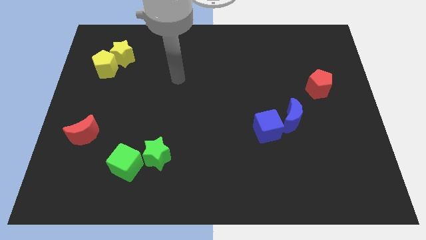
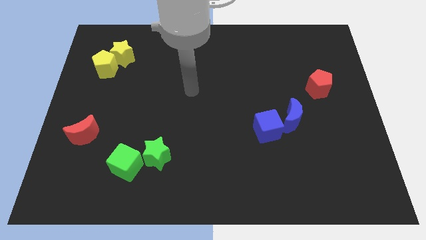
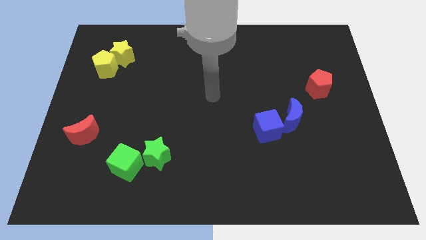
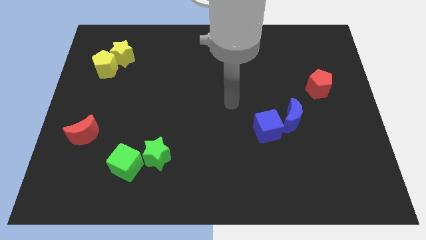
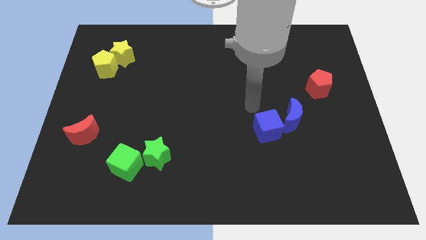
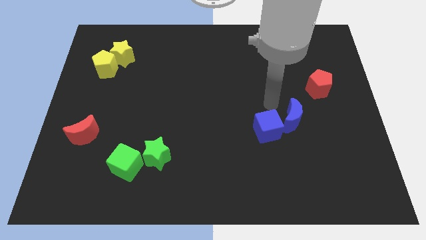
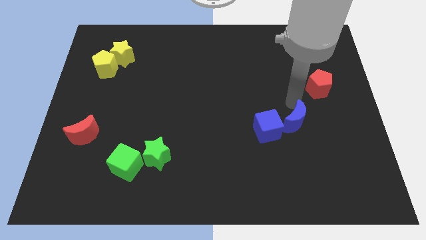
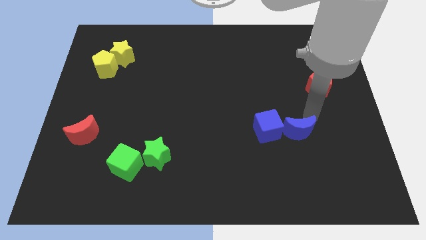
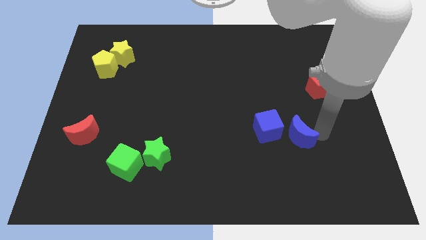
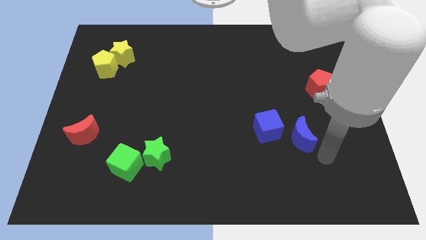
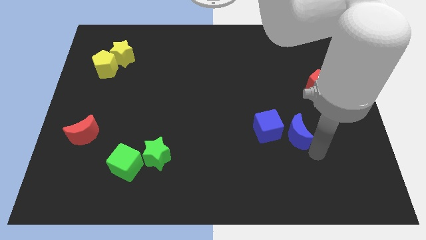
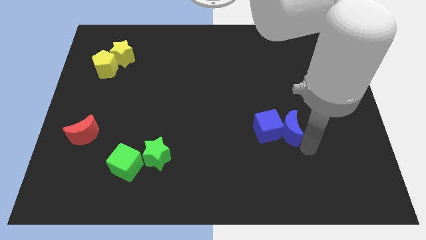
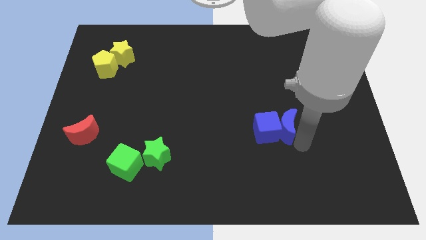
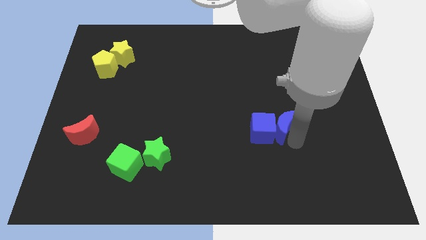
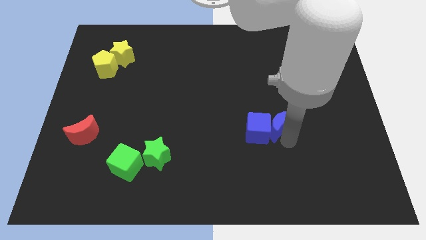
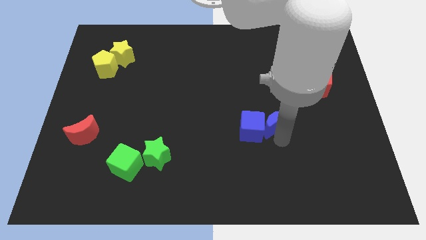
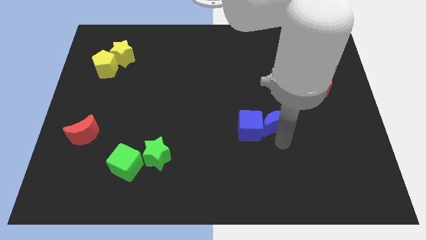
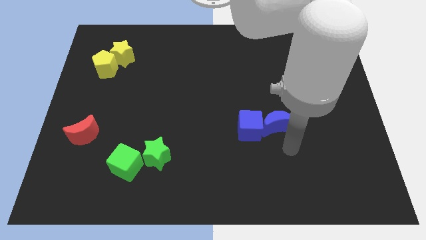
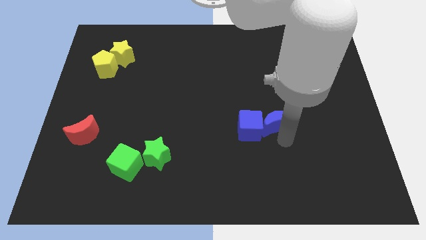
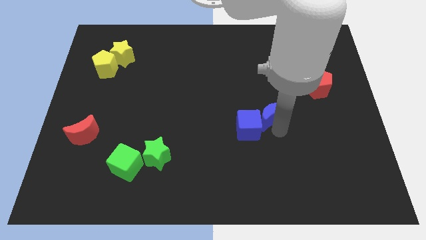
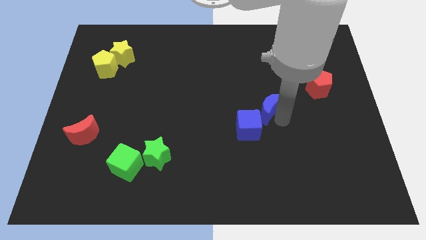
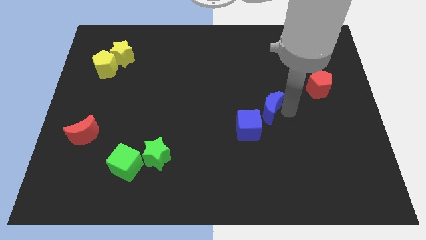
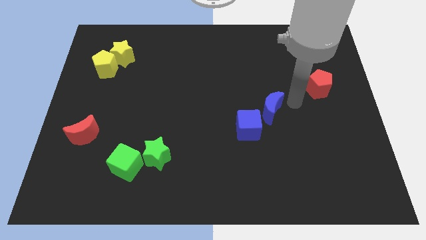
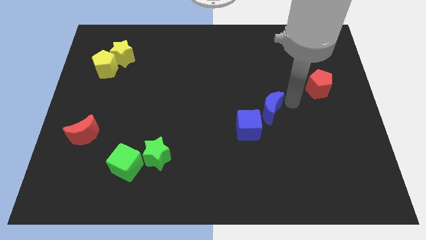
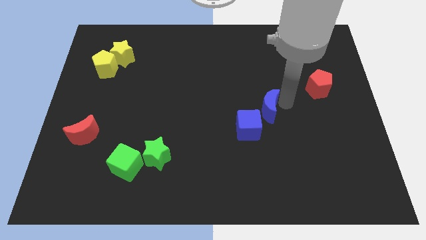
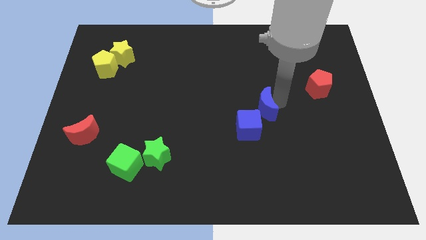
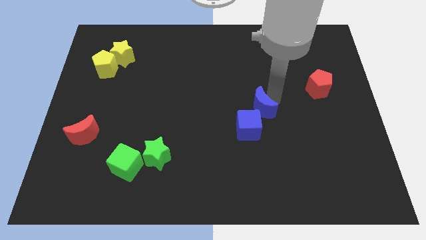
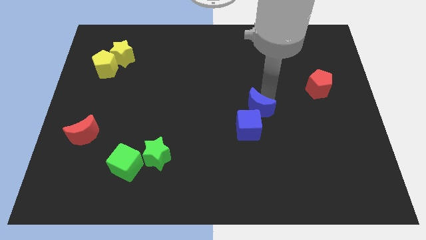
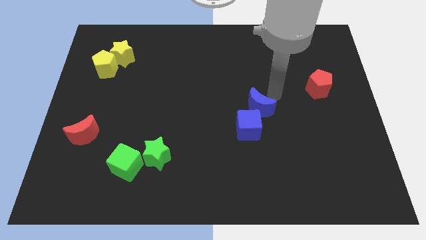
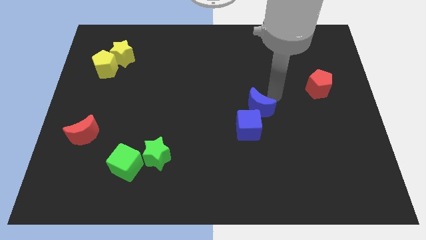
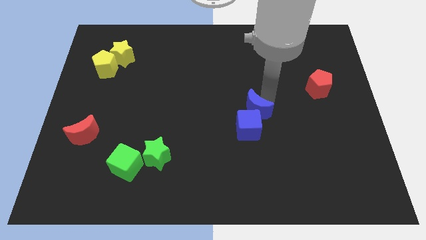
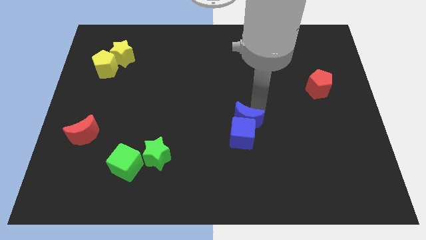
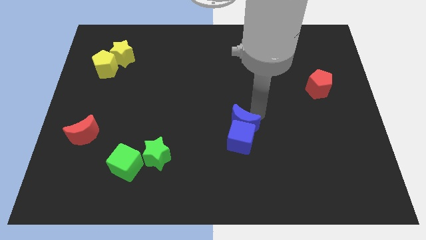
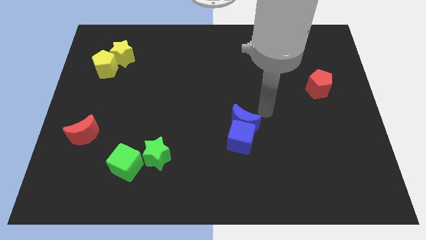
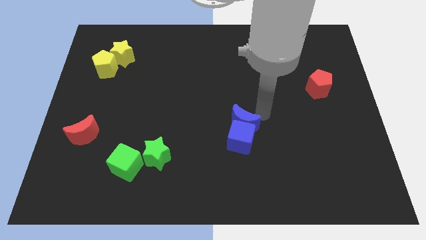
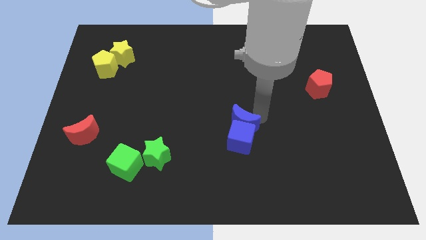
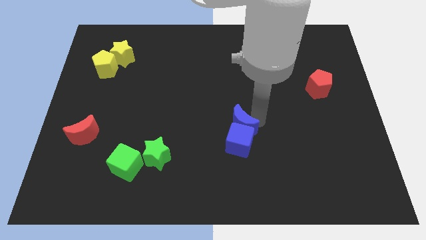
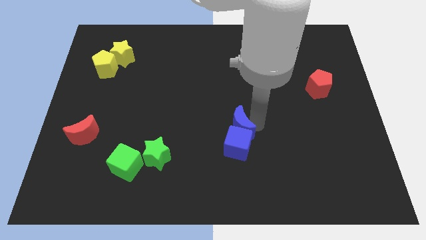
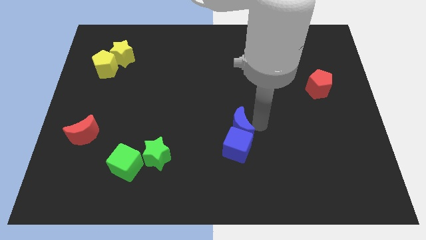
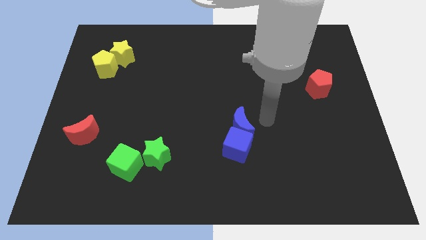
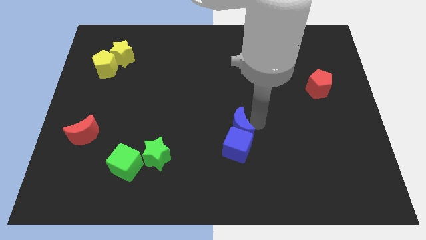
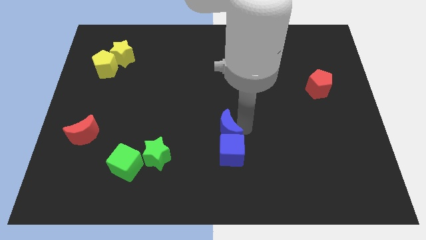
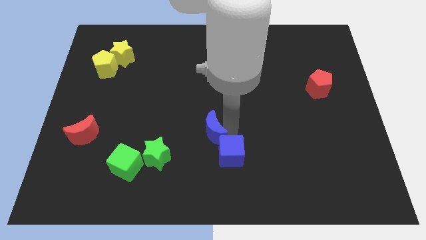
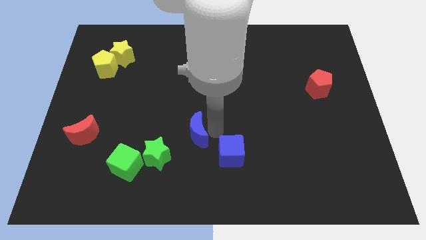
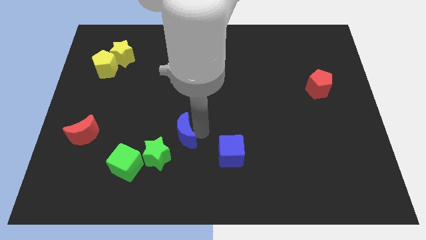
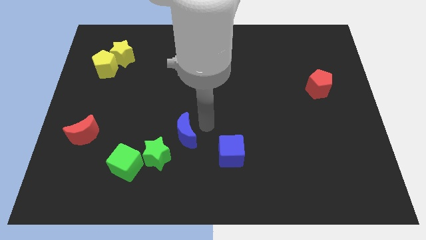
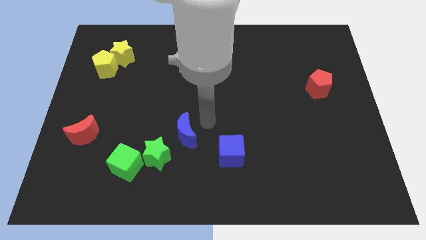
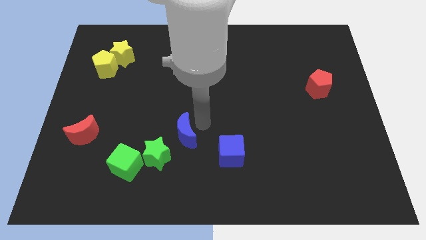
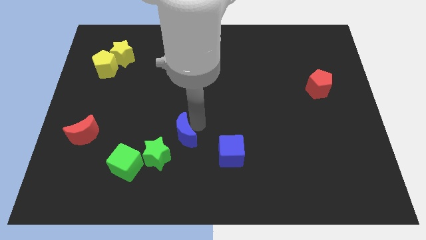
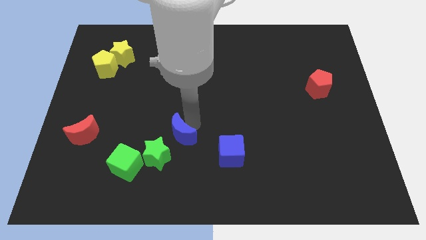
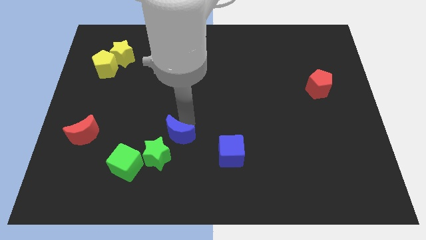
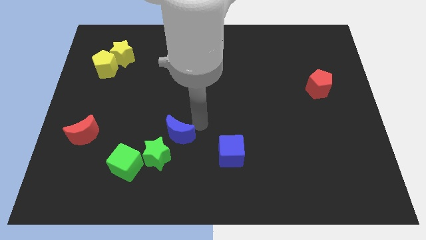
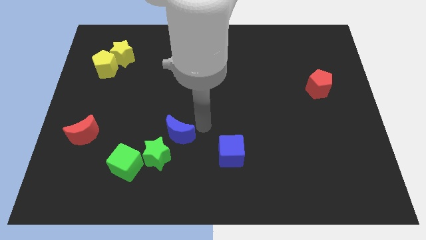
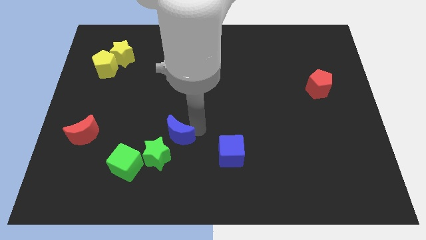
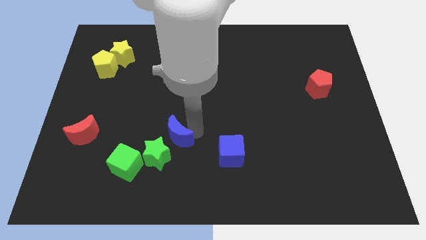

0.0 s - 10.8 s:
push the blue moon to the top right side of the green cube

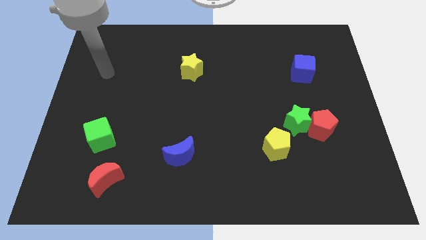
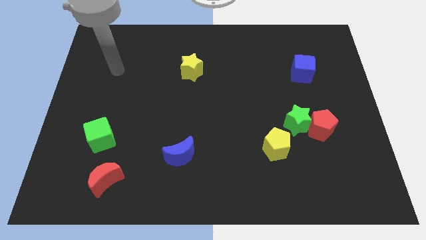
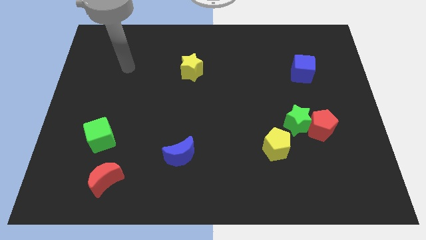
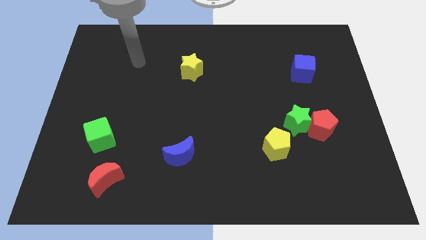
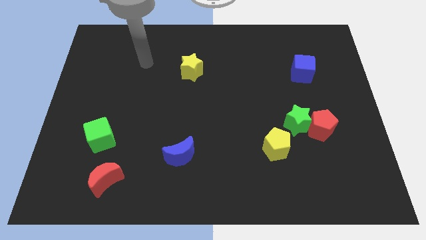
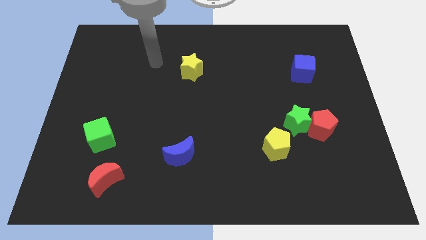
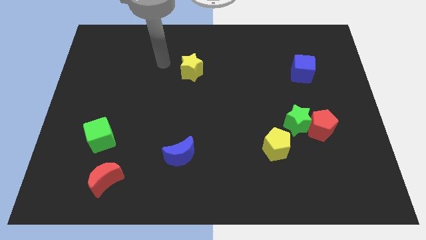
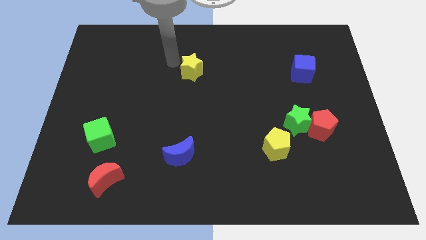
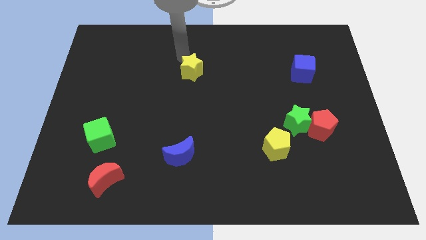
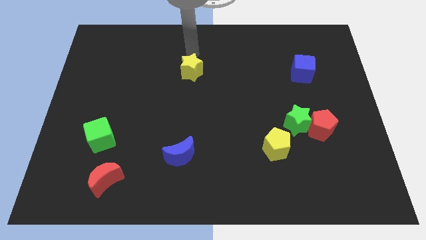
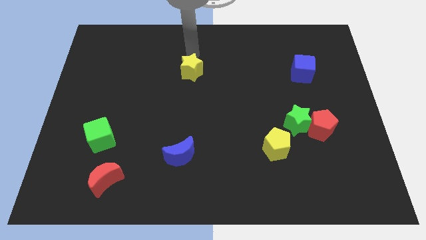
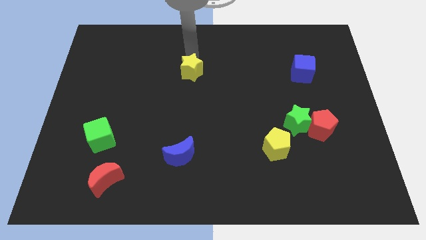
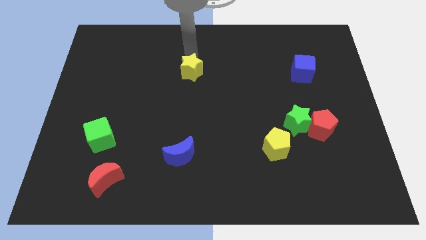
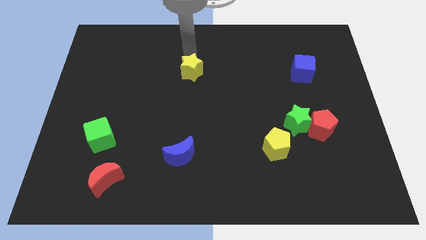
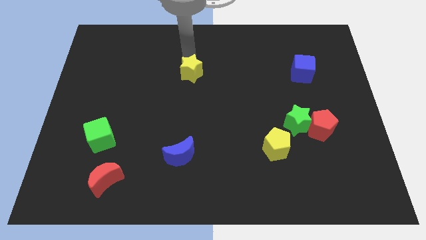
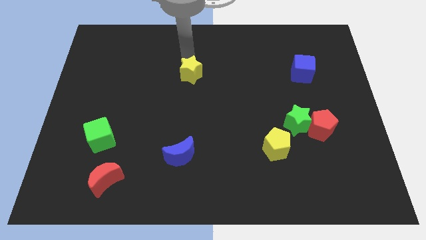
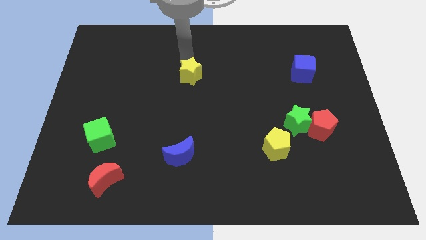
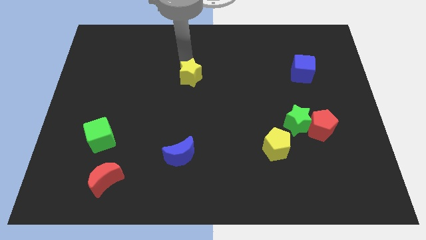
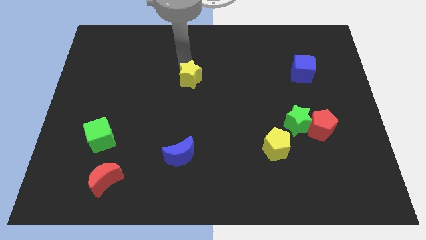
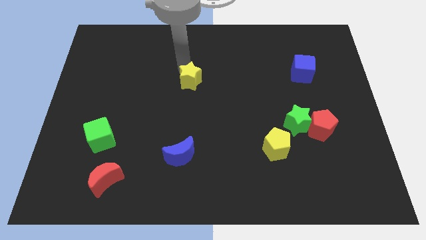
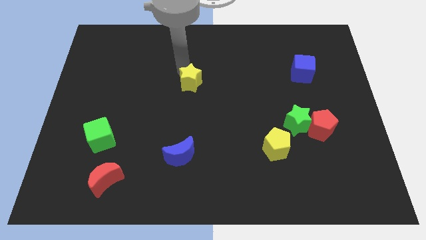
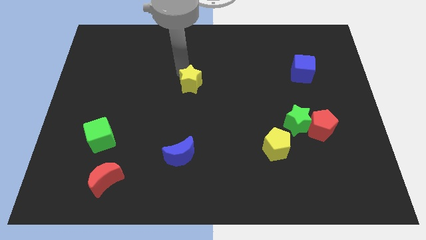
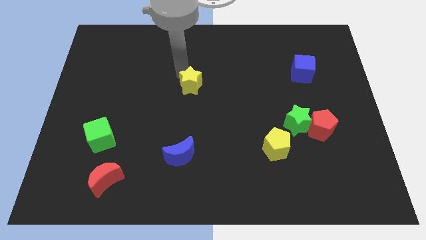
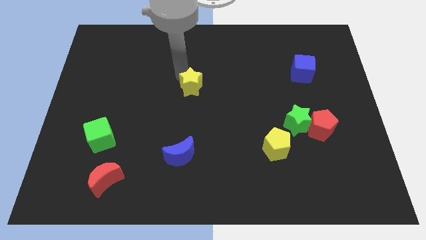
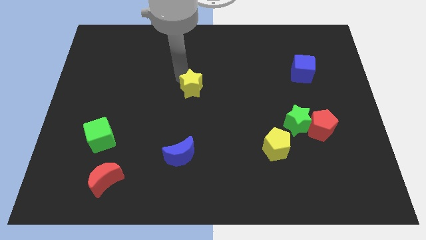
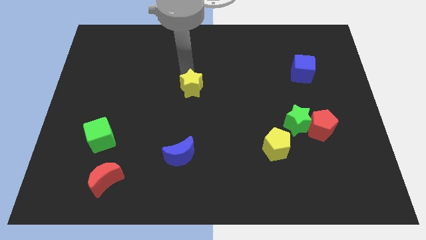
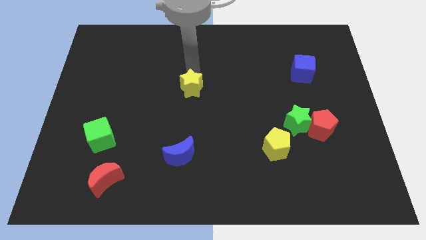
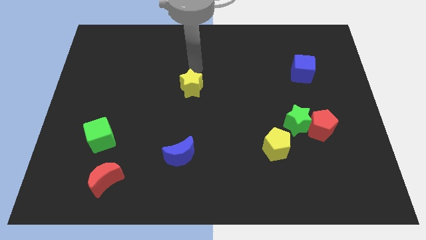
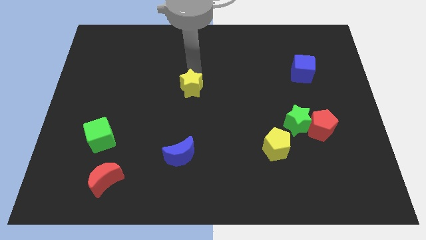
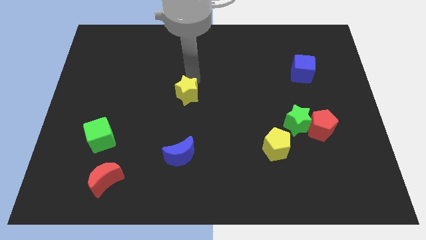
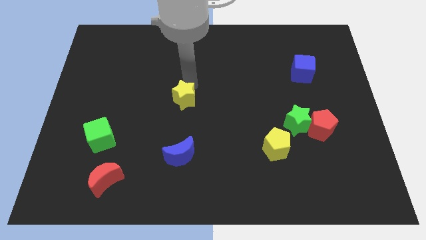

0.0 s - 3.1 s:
put the yellow star above the blue moon
